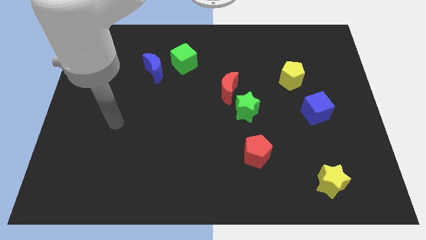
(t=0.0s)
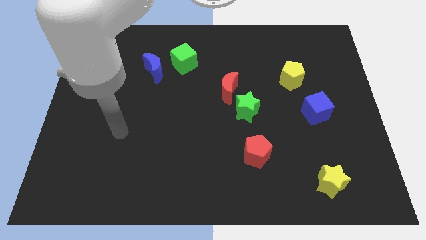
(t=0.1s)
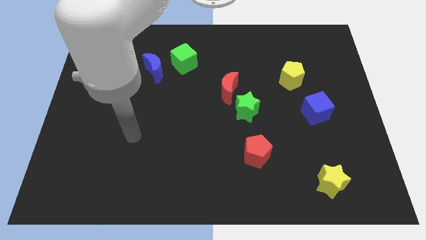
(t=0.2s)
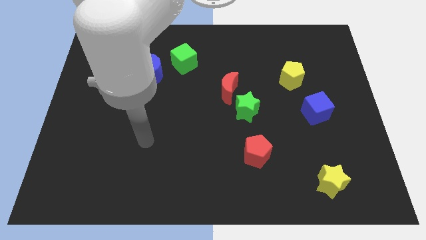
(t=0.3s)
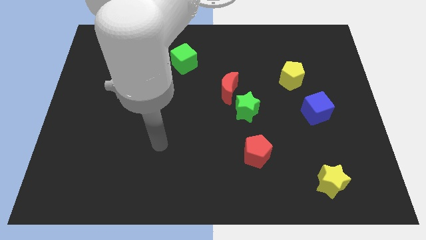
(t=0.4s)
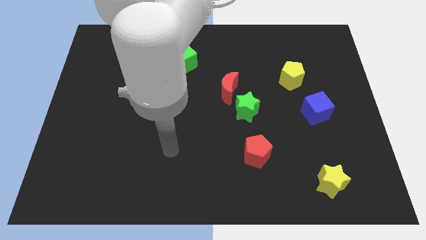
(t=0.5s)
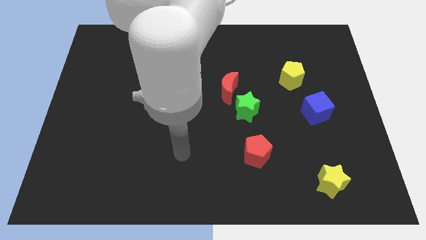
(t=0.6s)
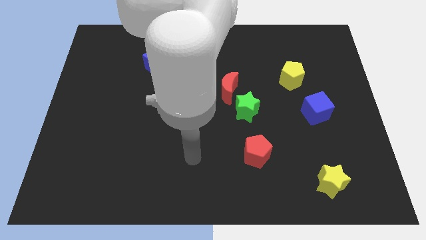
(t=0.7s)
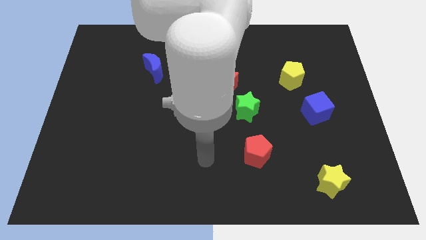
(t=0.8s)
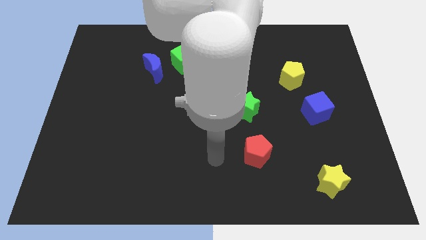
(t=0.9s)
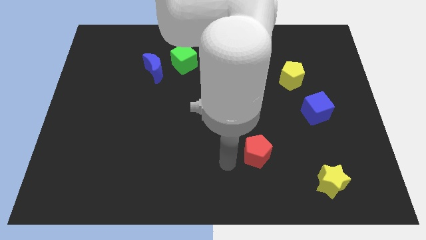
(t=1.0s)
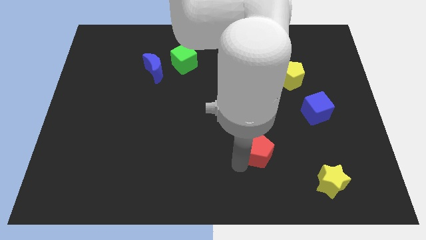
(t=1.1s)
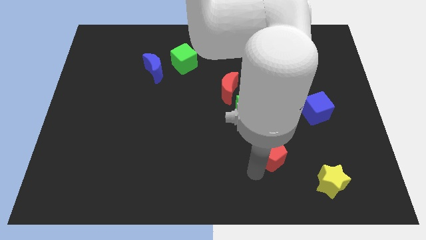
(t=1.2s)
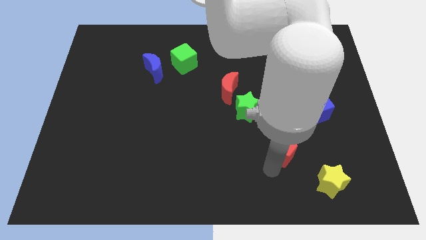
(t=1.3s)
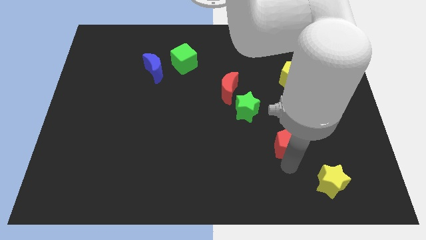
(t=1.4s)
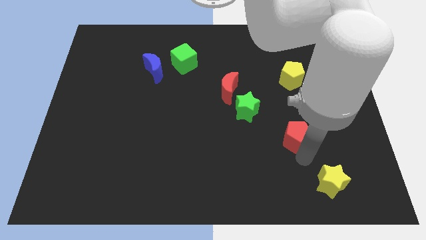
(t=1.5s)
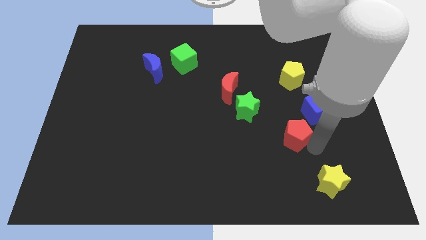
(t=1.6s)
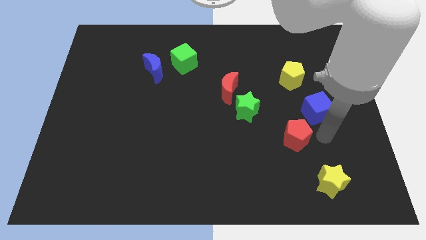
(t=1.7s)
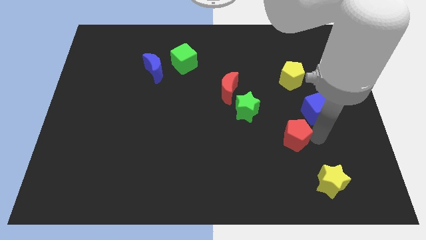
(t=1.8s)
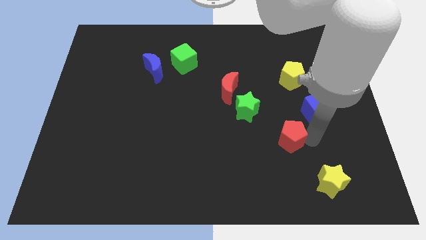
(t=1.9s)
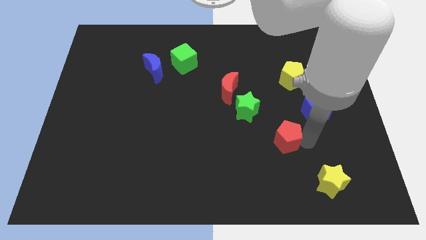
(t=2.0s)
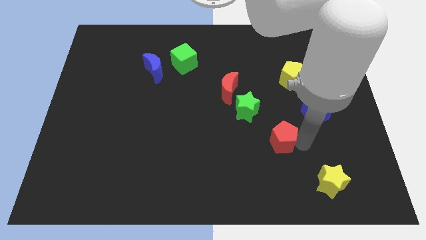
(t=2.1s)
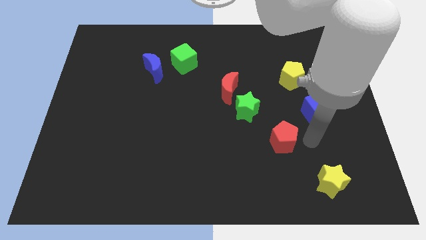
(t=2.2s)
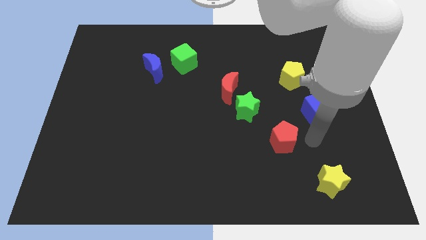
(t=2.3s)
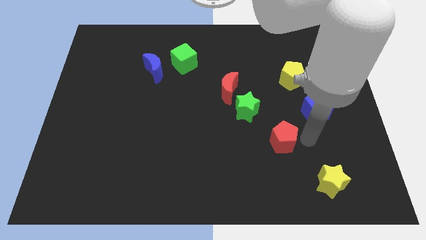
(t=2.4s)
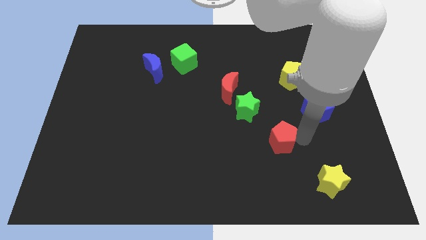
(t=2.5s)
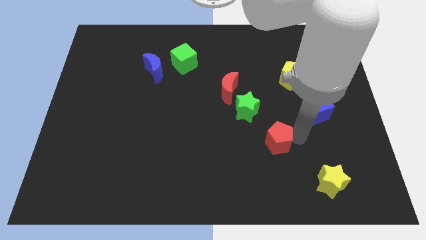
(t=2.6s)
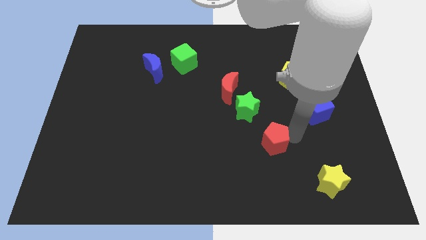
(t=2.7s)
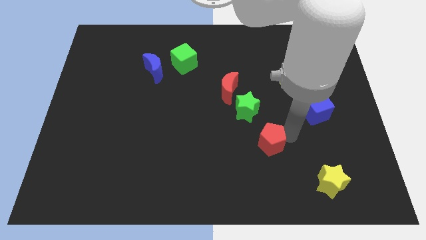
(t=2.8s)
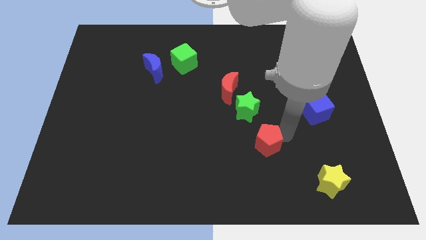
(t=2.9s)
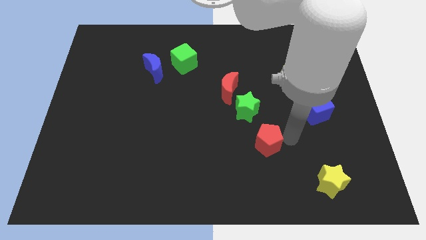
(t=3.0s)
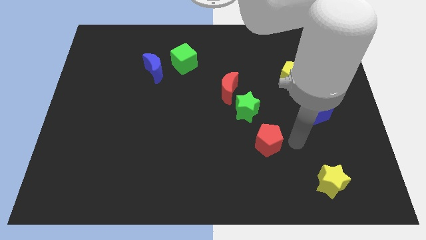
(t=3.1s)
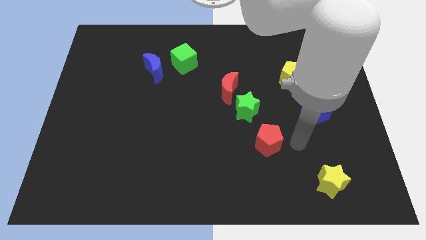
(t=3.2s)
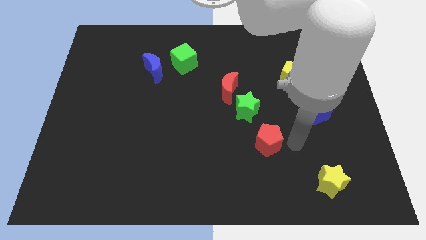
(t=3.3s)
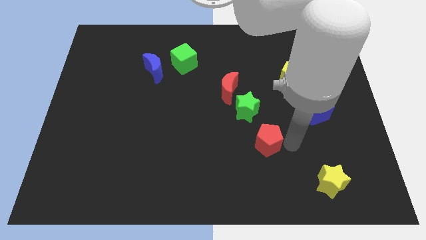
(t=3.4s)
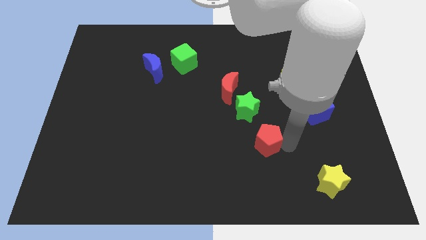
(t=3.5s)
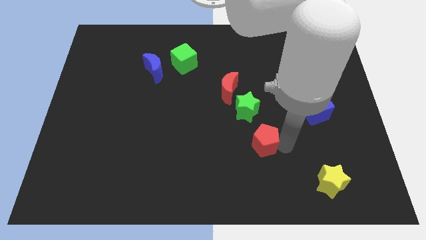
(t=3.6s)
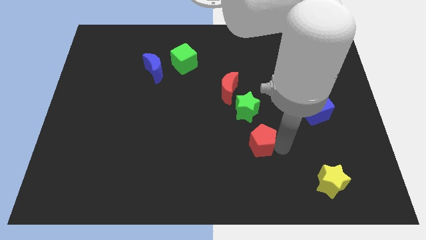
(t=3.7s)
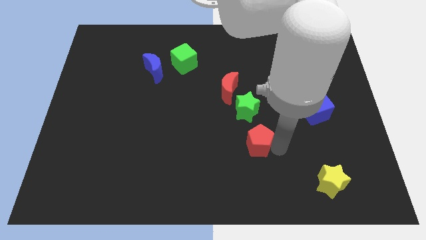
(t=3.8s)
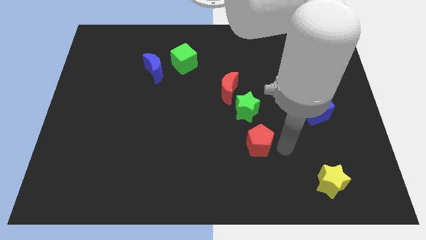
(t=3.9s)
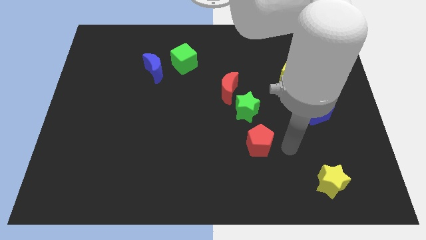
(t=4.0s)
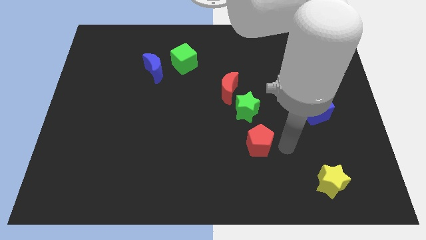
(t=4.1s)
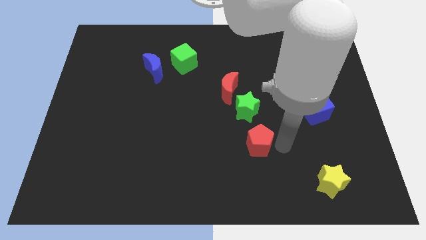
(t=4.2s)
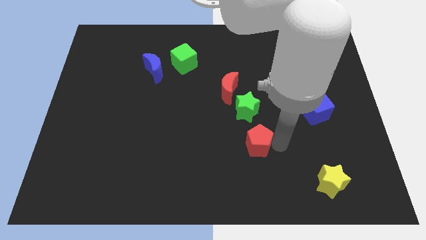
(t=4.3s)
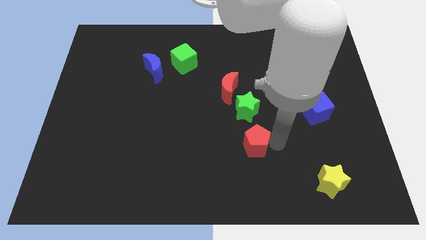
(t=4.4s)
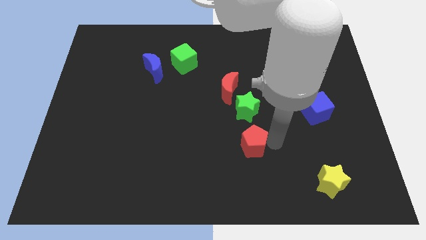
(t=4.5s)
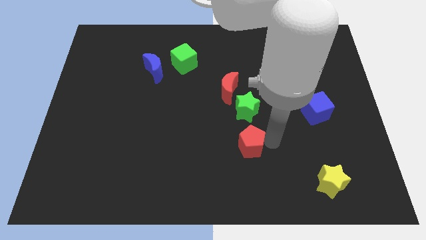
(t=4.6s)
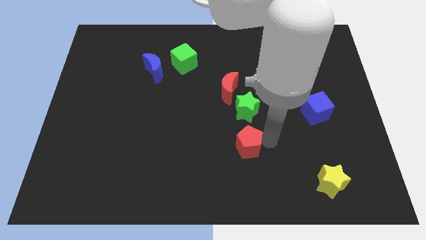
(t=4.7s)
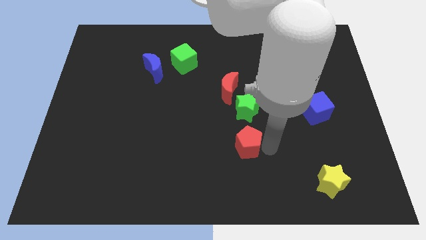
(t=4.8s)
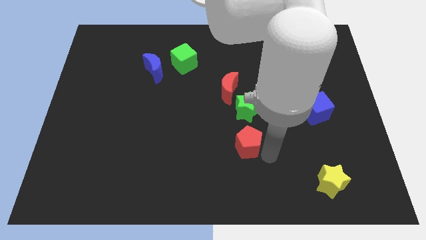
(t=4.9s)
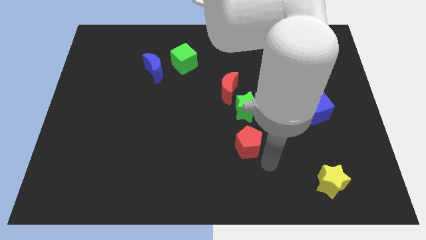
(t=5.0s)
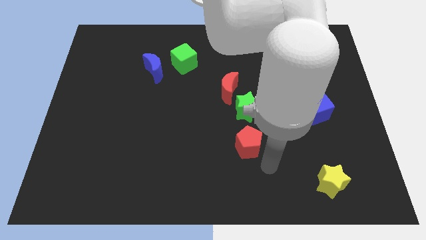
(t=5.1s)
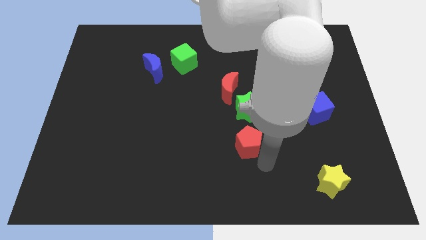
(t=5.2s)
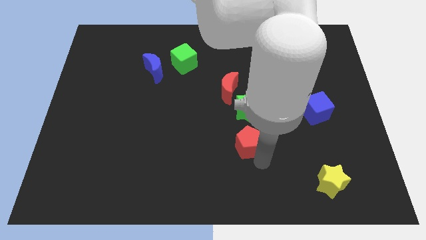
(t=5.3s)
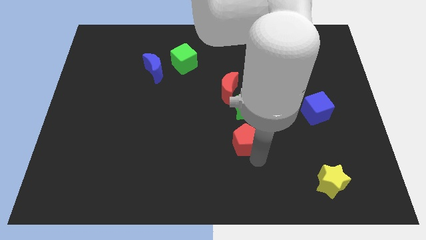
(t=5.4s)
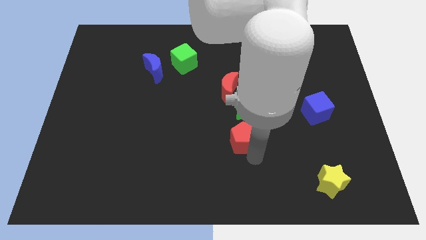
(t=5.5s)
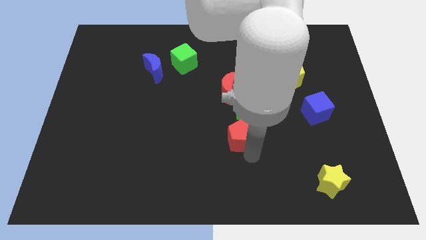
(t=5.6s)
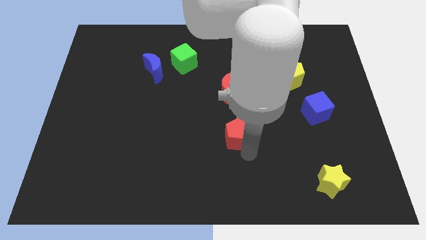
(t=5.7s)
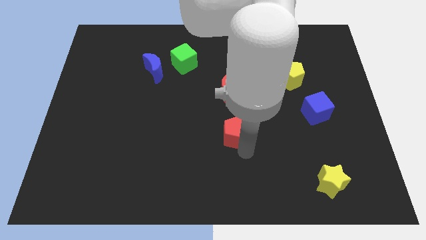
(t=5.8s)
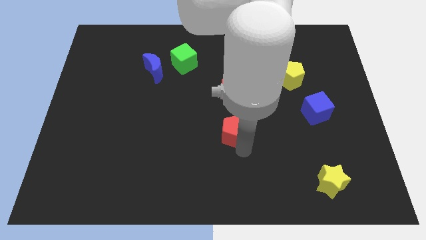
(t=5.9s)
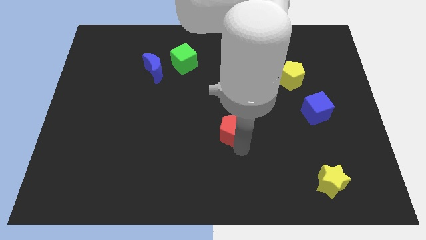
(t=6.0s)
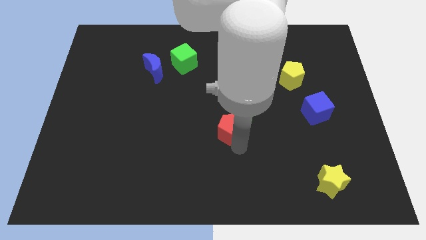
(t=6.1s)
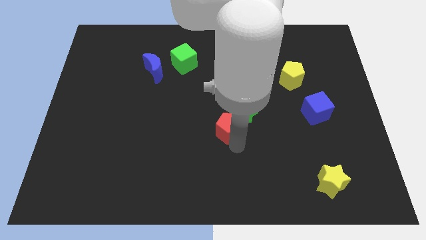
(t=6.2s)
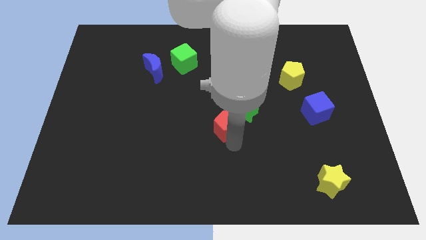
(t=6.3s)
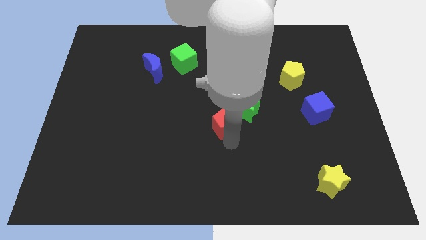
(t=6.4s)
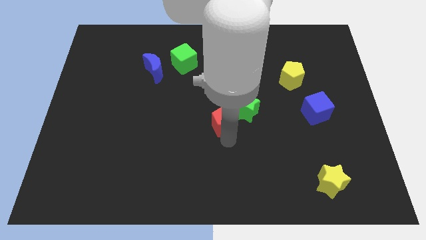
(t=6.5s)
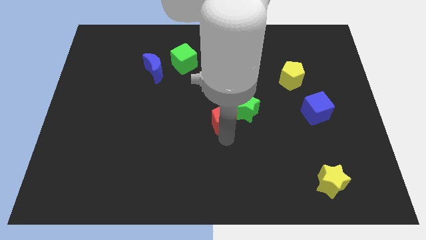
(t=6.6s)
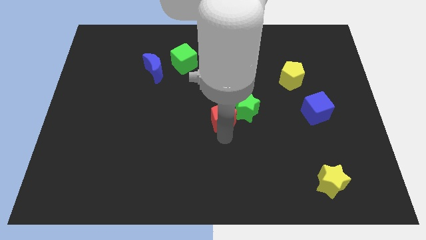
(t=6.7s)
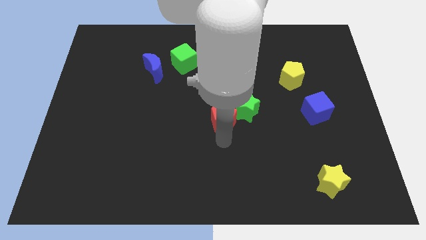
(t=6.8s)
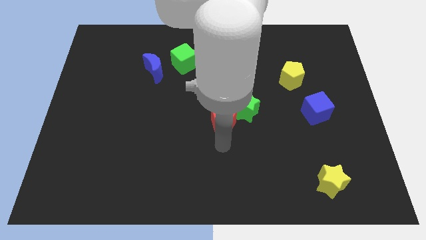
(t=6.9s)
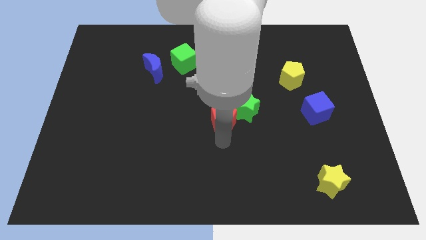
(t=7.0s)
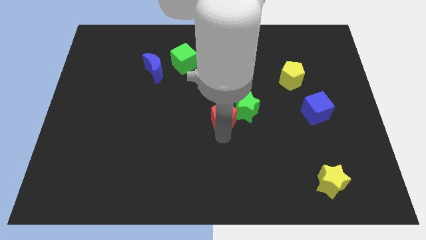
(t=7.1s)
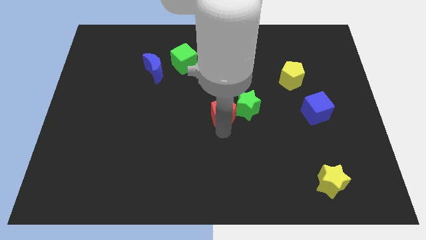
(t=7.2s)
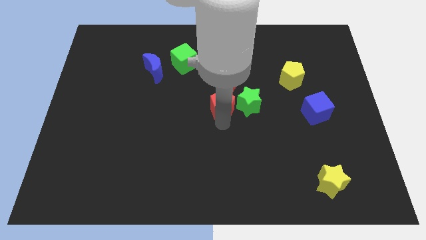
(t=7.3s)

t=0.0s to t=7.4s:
move the red pentagon next to the red moon
